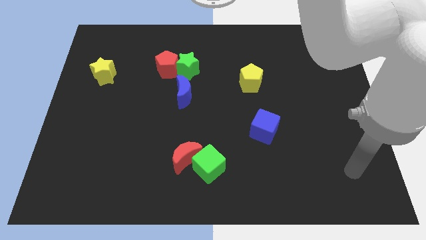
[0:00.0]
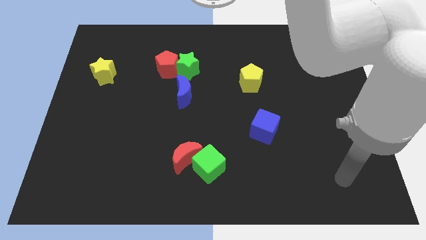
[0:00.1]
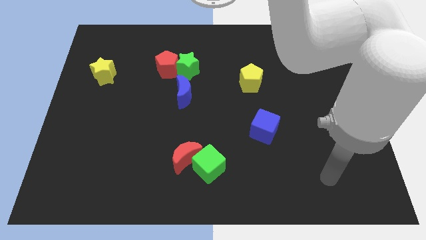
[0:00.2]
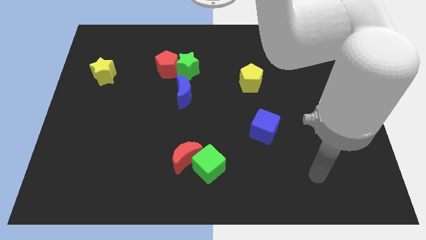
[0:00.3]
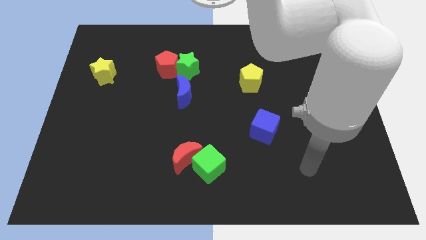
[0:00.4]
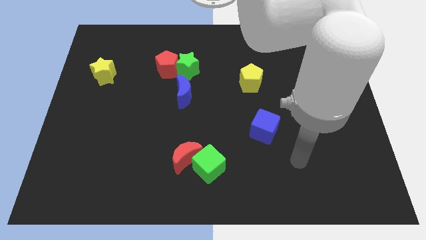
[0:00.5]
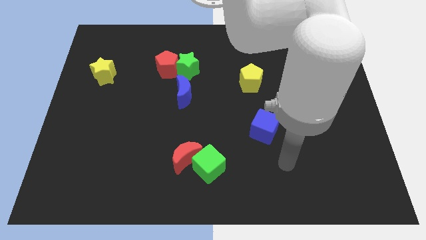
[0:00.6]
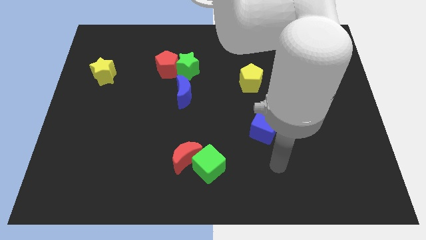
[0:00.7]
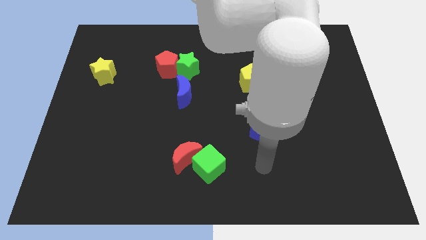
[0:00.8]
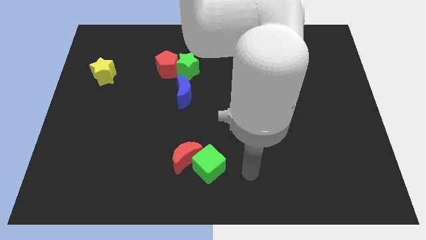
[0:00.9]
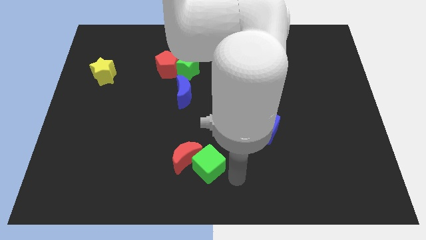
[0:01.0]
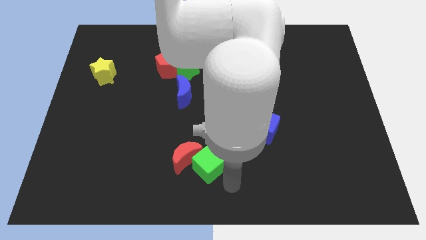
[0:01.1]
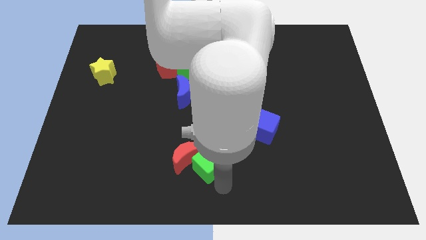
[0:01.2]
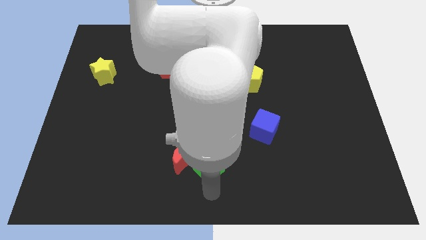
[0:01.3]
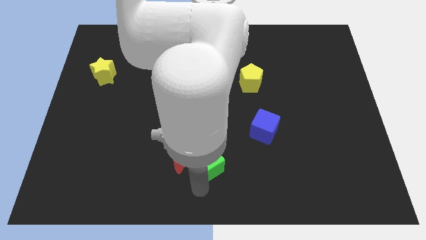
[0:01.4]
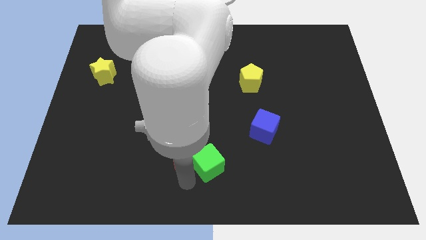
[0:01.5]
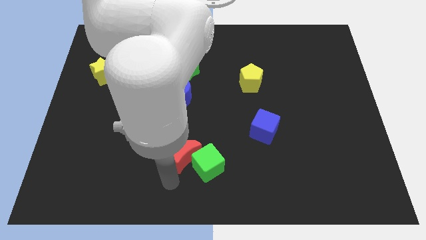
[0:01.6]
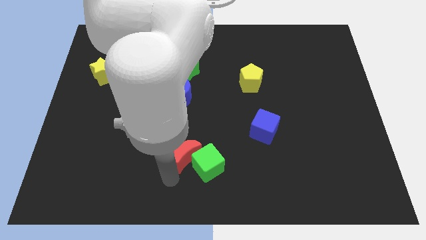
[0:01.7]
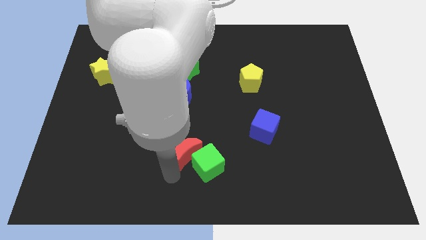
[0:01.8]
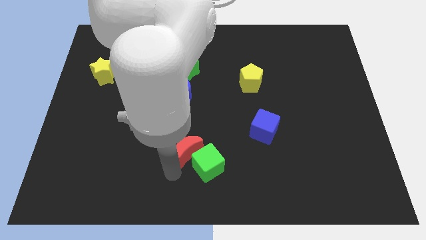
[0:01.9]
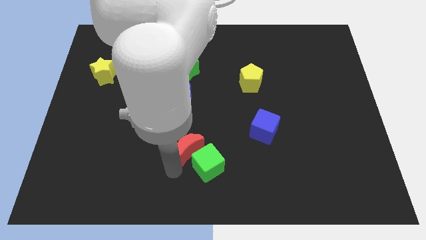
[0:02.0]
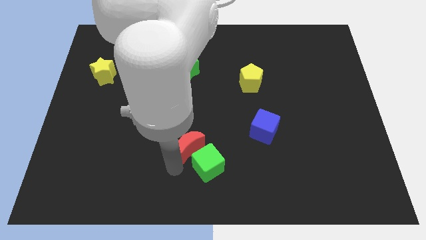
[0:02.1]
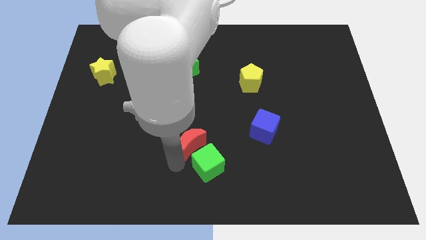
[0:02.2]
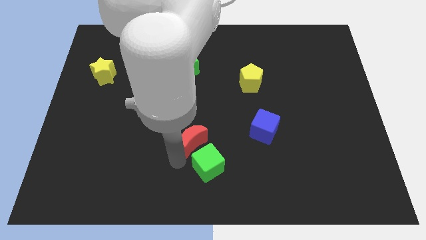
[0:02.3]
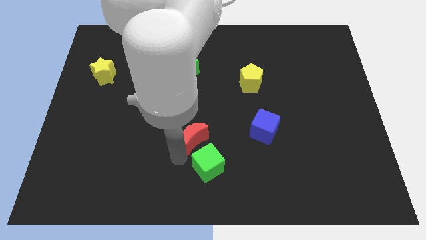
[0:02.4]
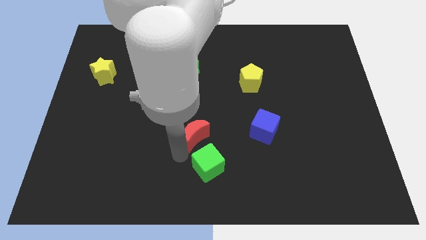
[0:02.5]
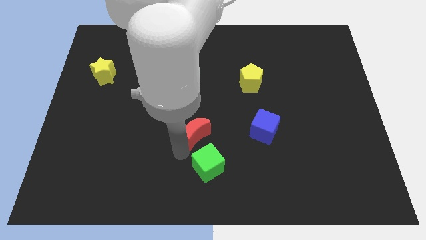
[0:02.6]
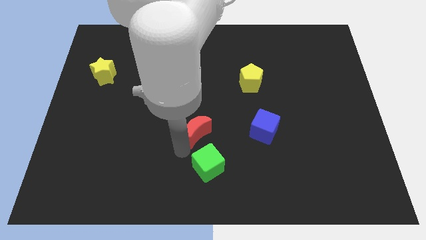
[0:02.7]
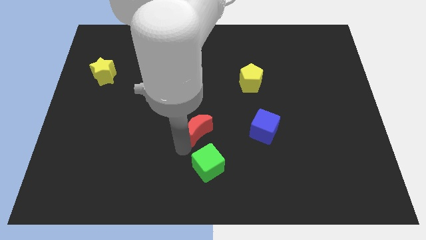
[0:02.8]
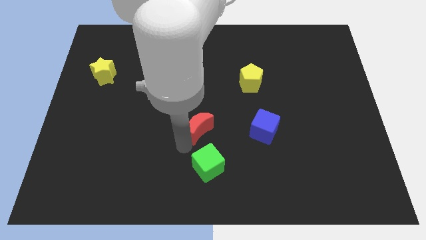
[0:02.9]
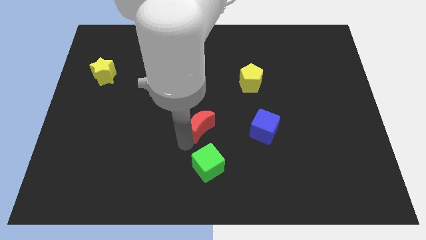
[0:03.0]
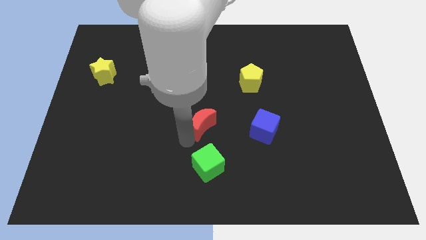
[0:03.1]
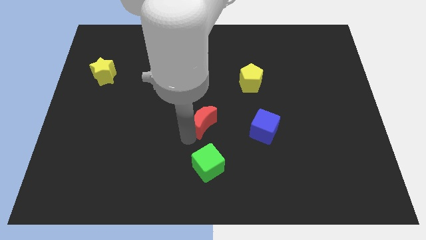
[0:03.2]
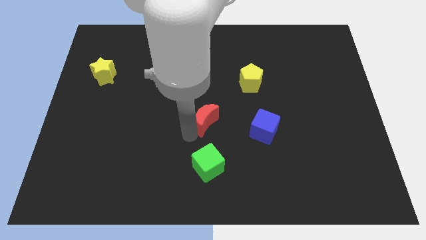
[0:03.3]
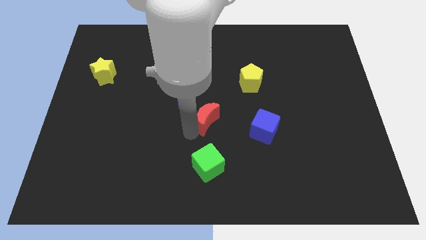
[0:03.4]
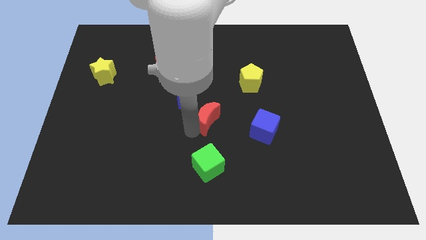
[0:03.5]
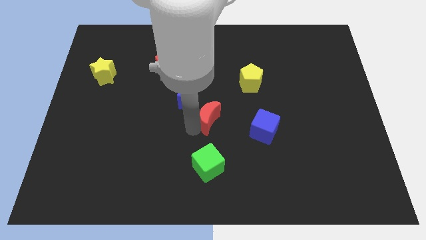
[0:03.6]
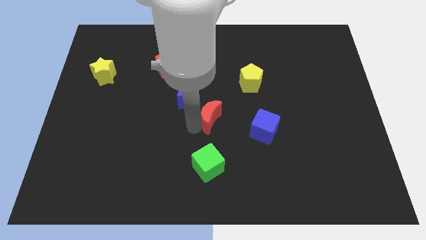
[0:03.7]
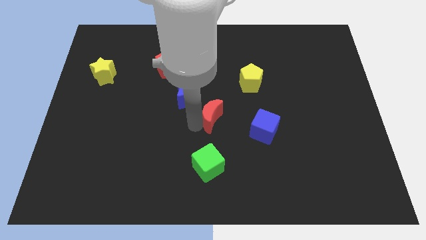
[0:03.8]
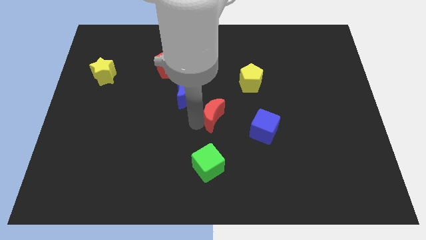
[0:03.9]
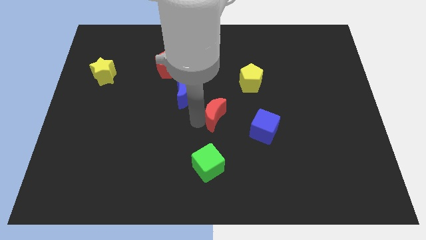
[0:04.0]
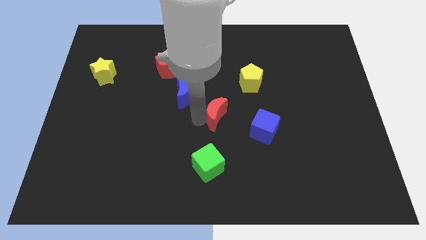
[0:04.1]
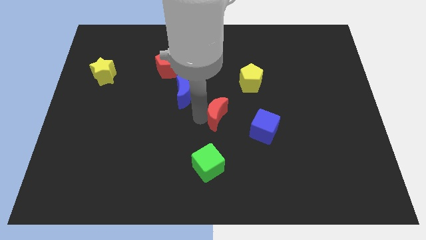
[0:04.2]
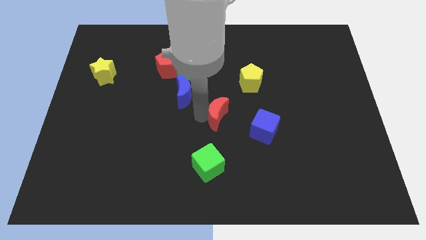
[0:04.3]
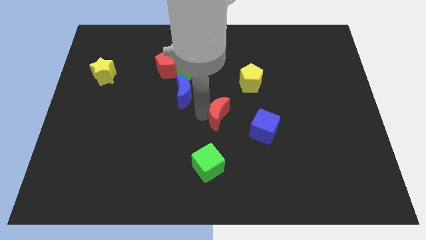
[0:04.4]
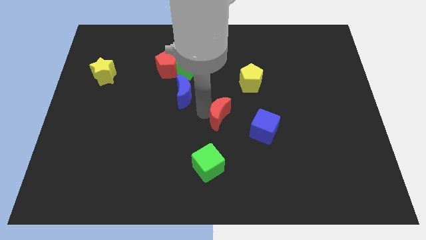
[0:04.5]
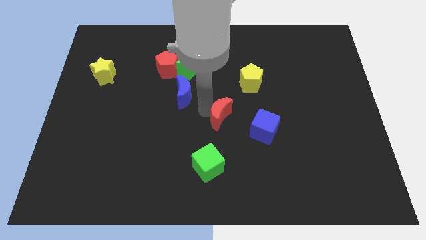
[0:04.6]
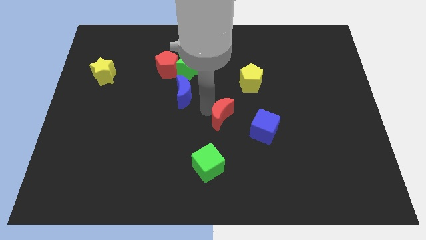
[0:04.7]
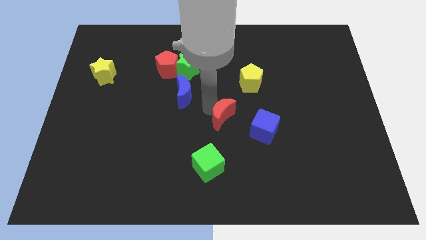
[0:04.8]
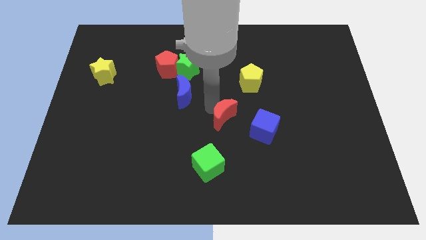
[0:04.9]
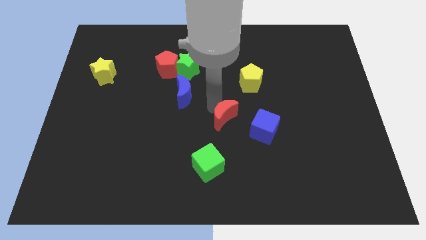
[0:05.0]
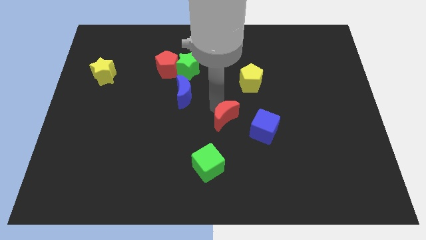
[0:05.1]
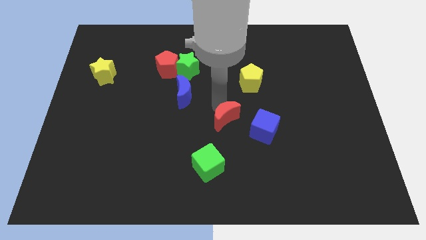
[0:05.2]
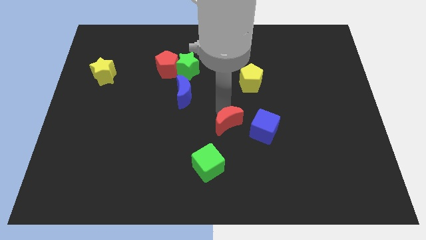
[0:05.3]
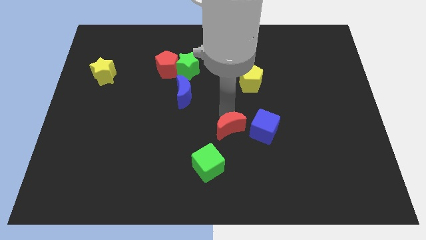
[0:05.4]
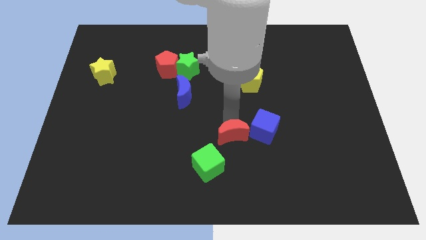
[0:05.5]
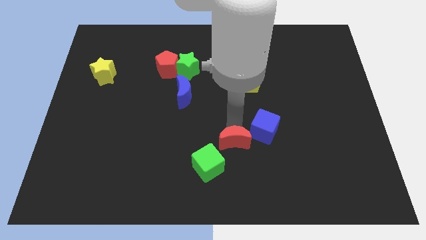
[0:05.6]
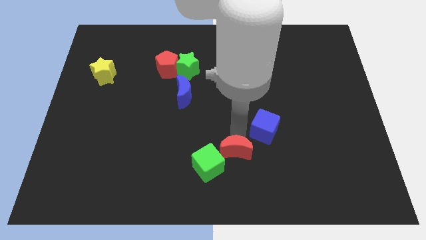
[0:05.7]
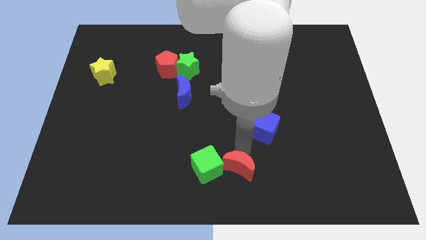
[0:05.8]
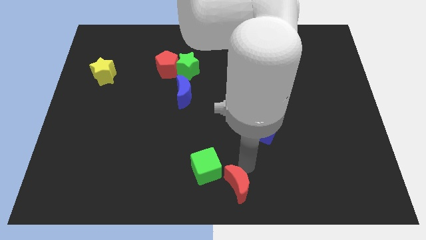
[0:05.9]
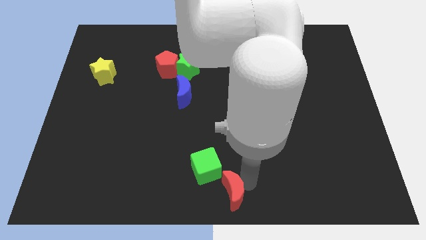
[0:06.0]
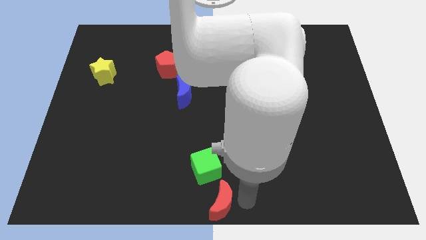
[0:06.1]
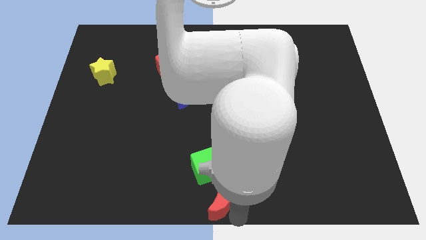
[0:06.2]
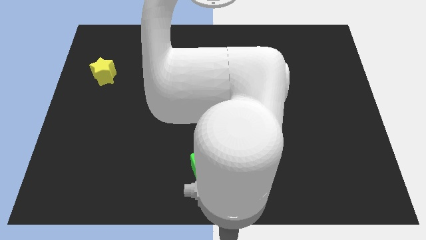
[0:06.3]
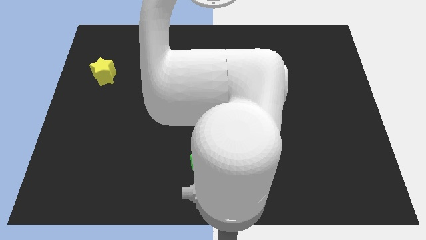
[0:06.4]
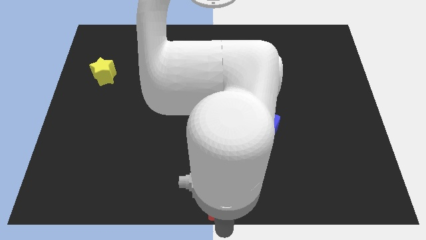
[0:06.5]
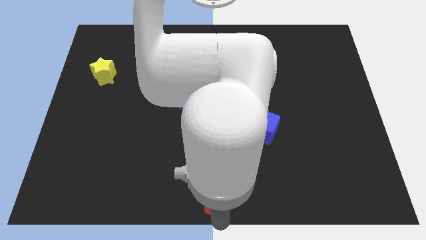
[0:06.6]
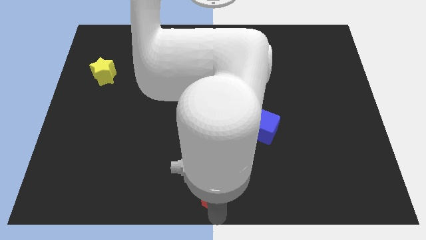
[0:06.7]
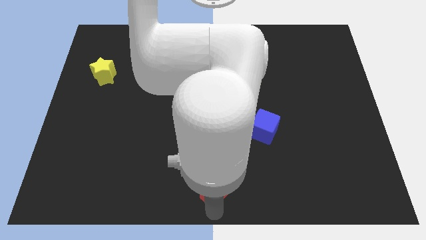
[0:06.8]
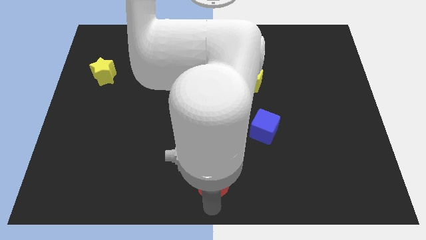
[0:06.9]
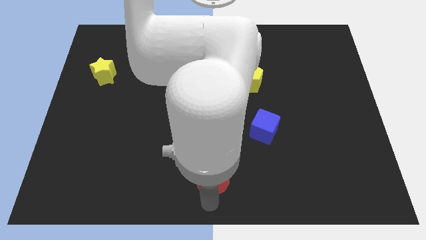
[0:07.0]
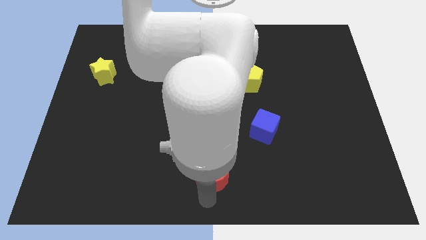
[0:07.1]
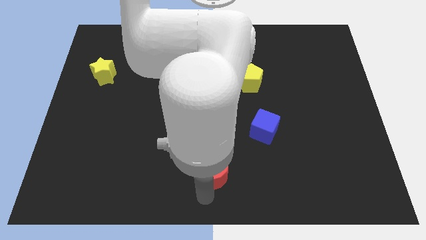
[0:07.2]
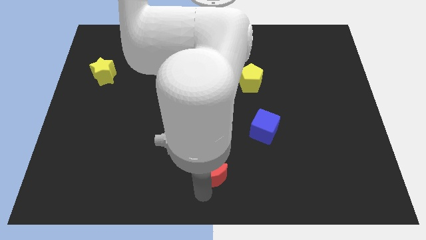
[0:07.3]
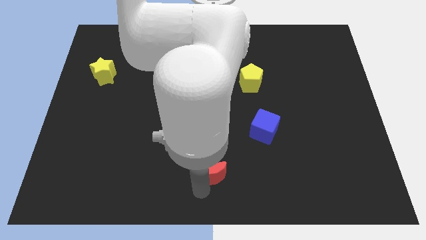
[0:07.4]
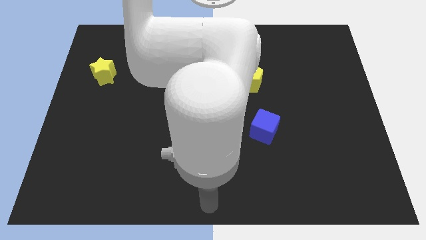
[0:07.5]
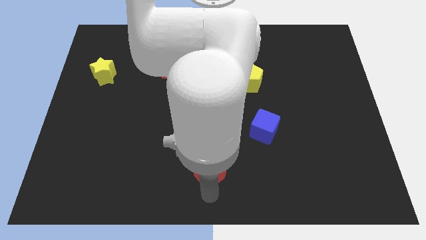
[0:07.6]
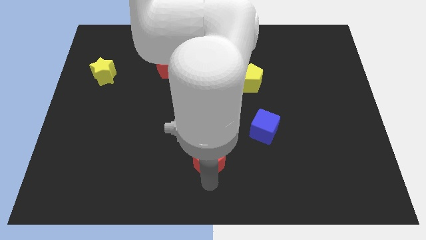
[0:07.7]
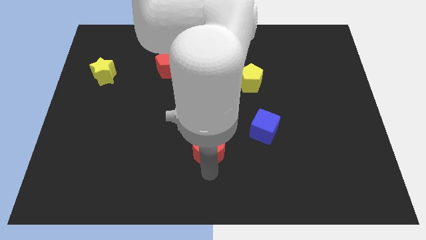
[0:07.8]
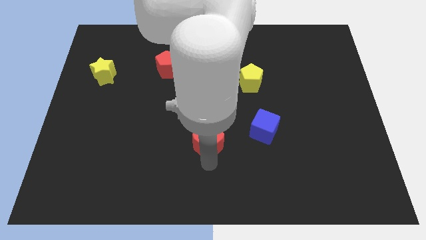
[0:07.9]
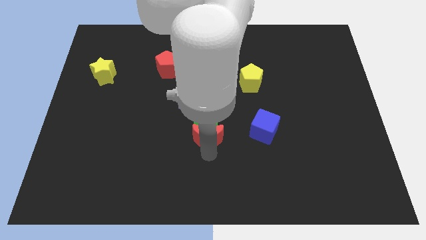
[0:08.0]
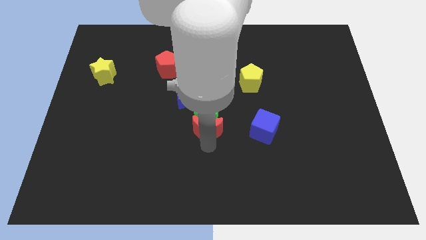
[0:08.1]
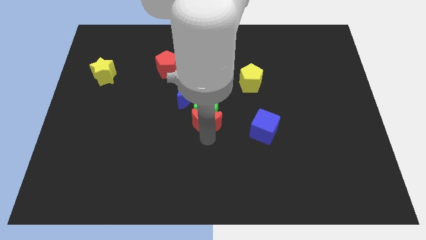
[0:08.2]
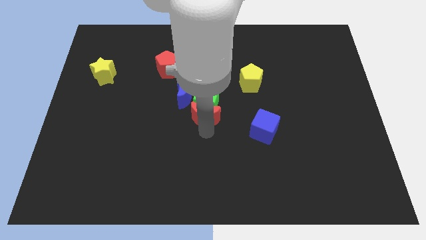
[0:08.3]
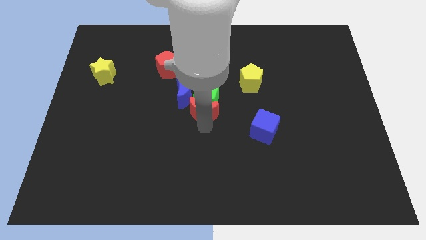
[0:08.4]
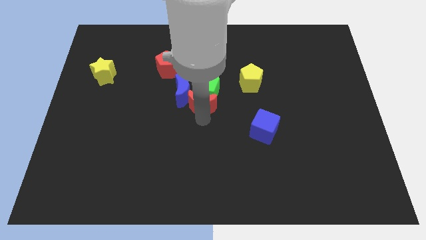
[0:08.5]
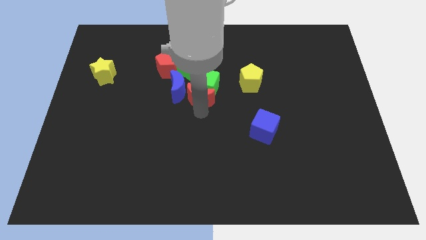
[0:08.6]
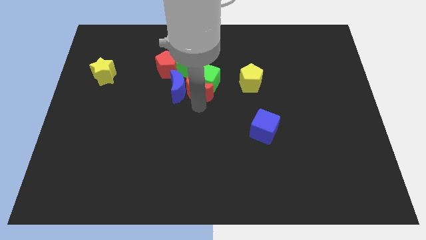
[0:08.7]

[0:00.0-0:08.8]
move the red moon just left of the yellow pentagon
